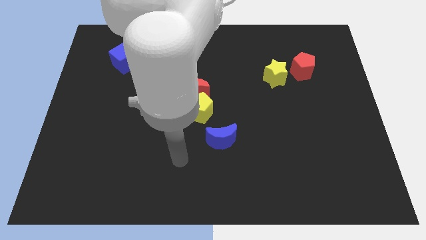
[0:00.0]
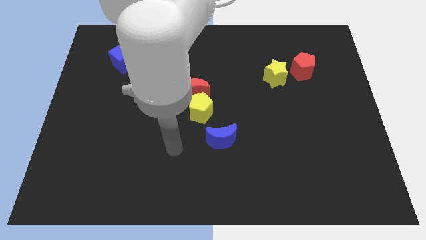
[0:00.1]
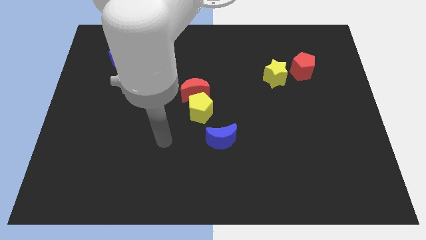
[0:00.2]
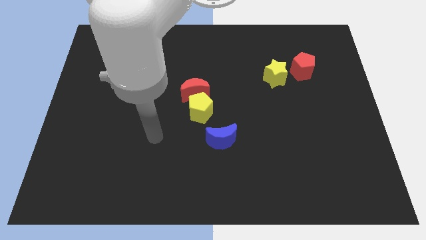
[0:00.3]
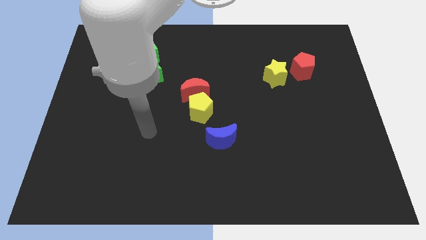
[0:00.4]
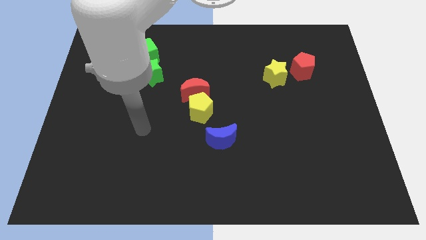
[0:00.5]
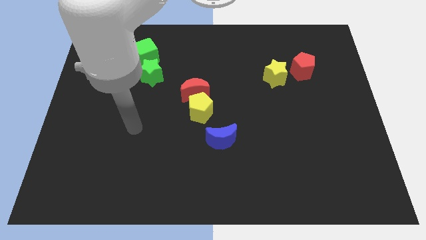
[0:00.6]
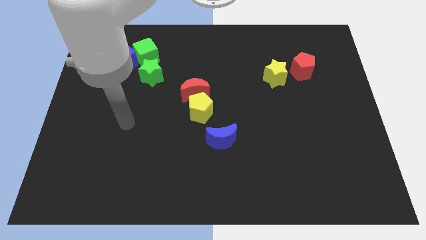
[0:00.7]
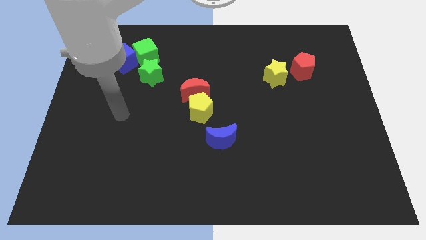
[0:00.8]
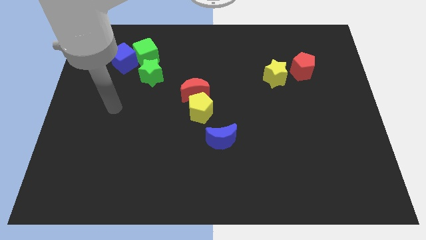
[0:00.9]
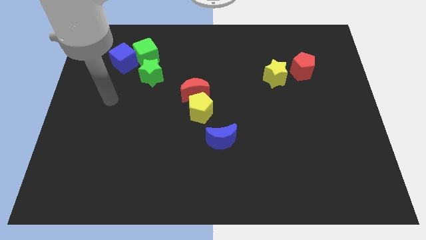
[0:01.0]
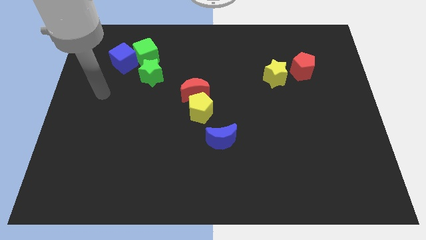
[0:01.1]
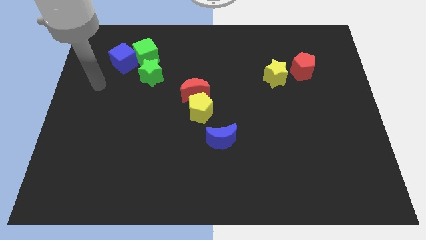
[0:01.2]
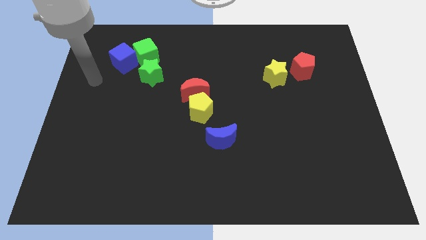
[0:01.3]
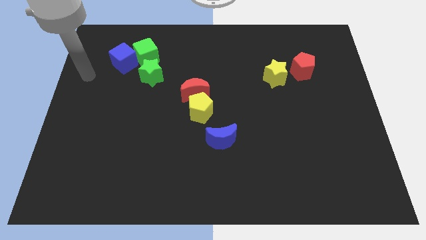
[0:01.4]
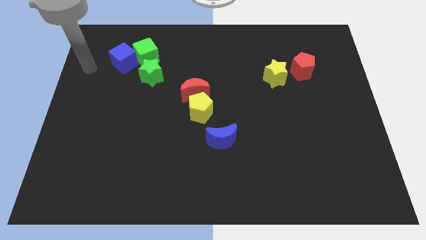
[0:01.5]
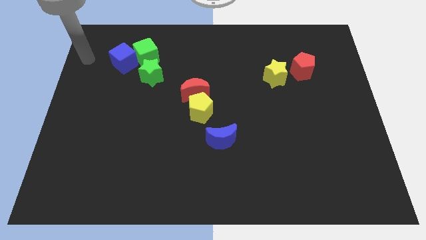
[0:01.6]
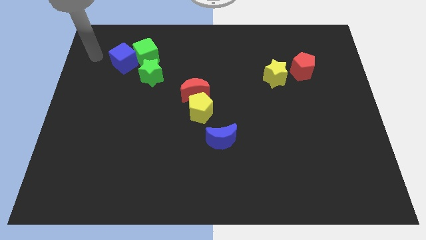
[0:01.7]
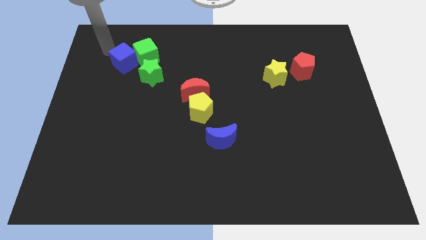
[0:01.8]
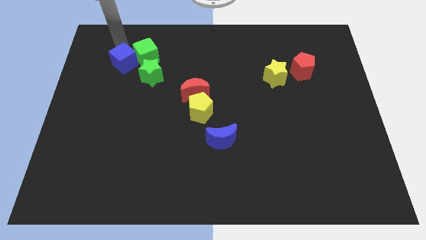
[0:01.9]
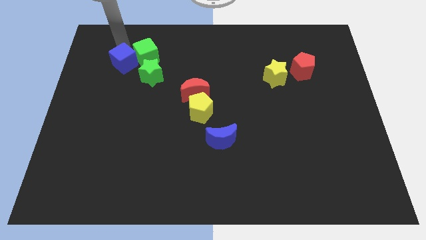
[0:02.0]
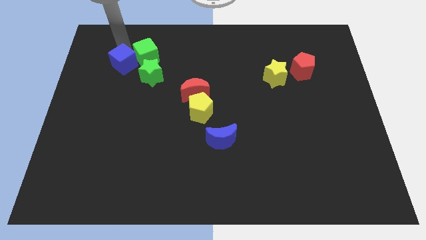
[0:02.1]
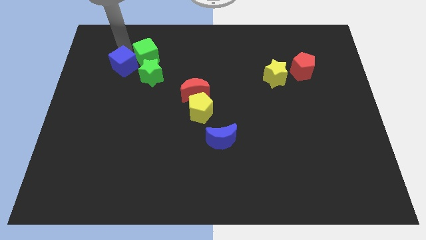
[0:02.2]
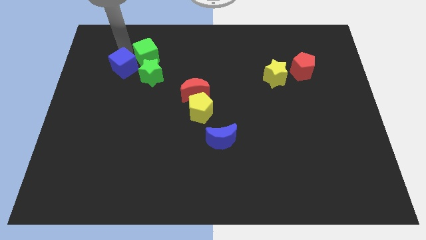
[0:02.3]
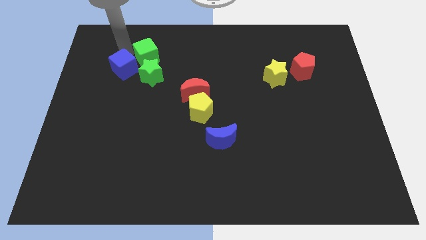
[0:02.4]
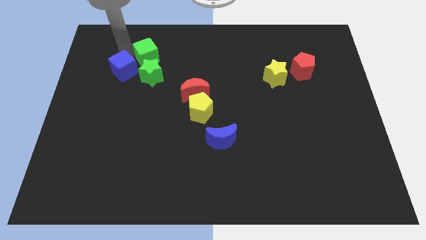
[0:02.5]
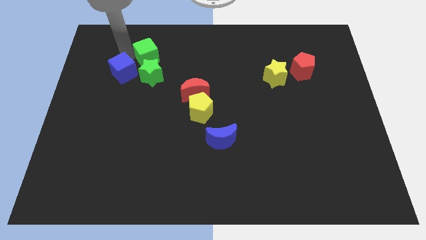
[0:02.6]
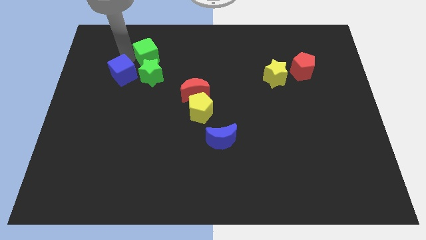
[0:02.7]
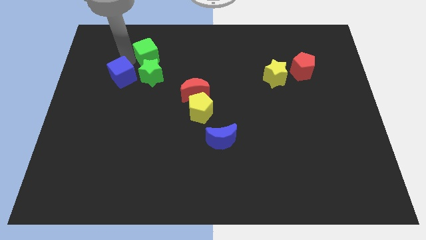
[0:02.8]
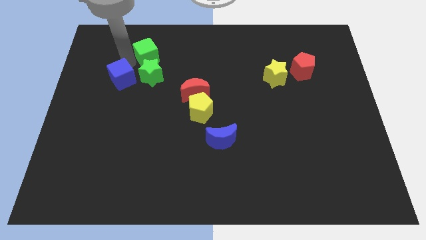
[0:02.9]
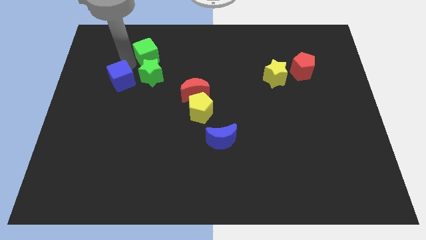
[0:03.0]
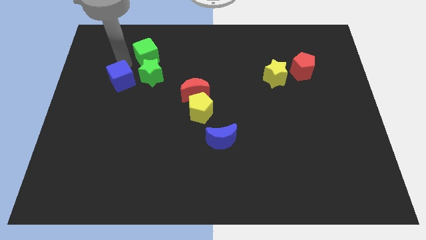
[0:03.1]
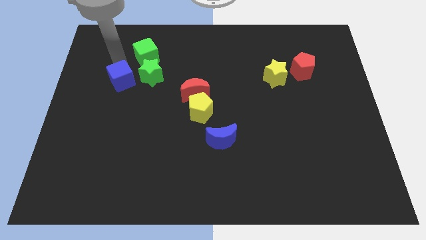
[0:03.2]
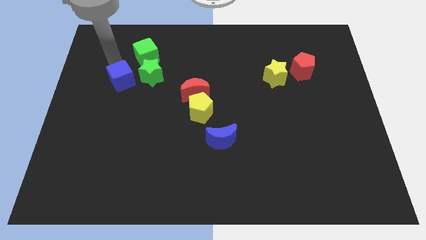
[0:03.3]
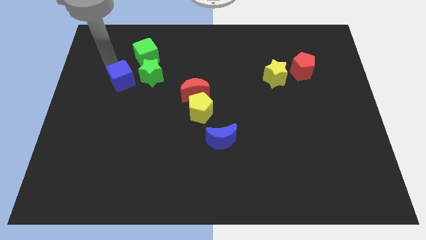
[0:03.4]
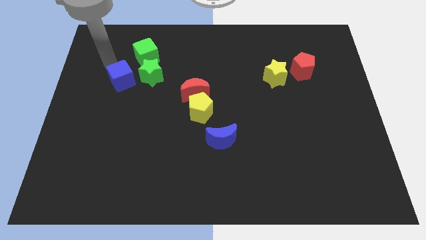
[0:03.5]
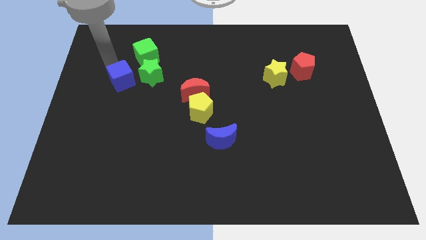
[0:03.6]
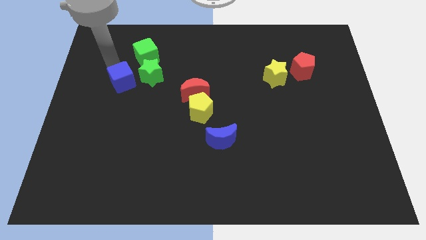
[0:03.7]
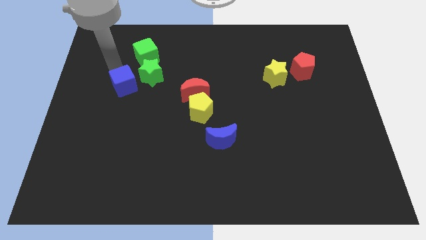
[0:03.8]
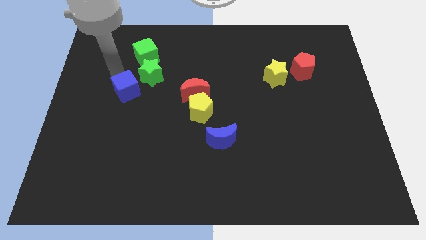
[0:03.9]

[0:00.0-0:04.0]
slightly move the blue cube down and to the right

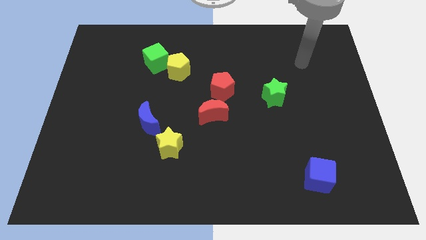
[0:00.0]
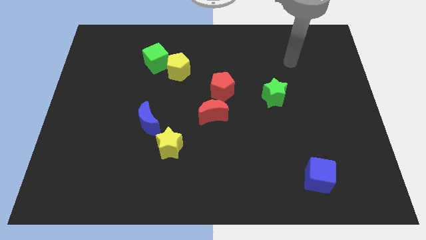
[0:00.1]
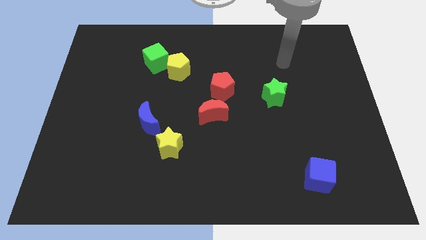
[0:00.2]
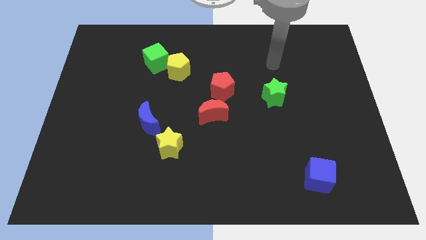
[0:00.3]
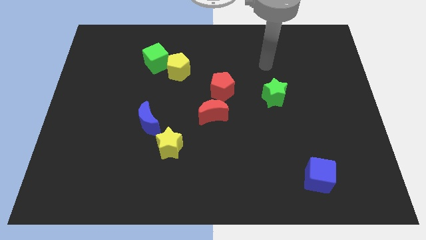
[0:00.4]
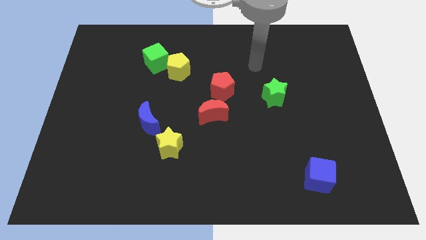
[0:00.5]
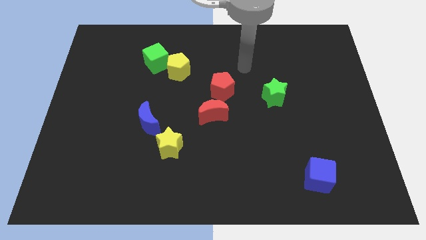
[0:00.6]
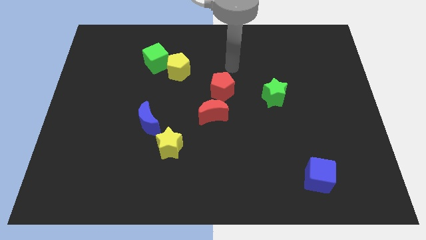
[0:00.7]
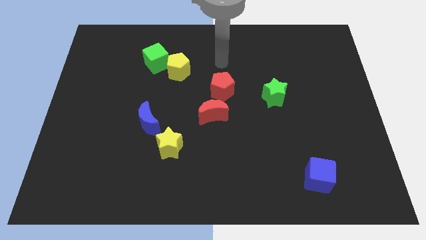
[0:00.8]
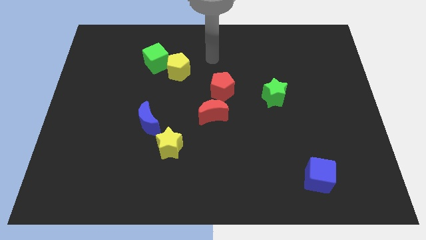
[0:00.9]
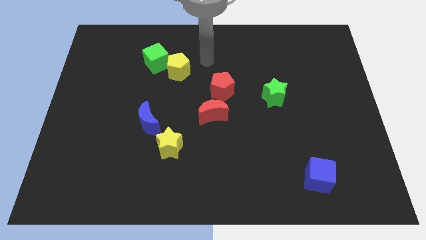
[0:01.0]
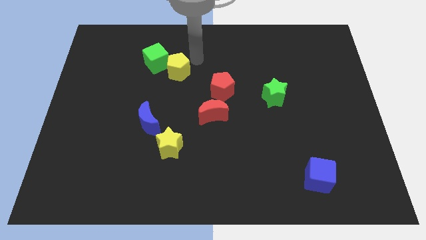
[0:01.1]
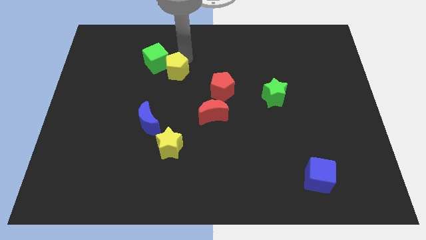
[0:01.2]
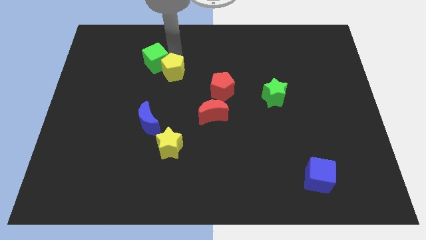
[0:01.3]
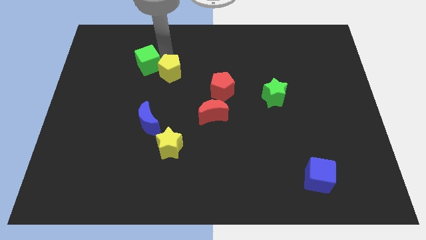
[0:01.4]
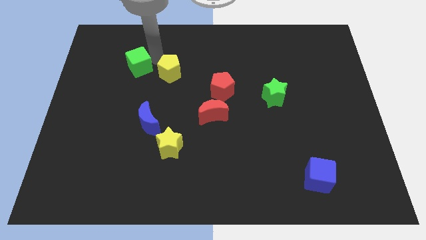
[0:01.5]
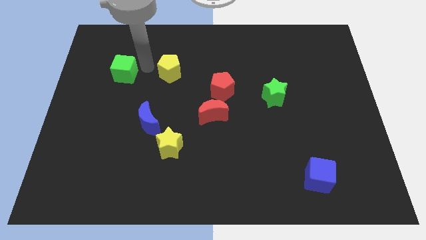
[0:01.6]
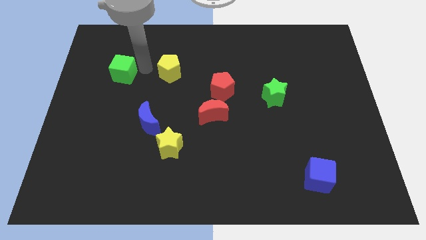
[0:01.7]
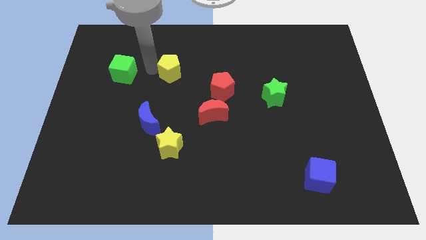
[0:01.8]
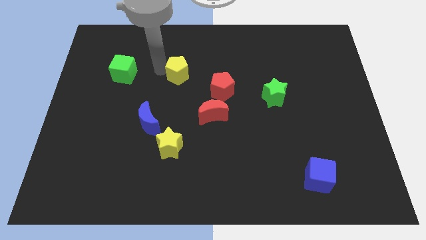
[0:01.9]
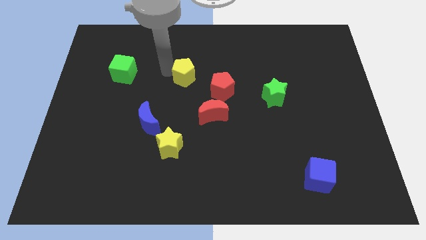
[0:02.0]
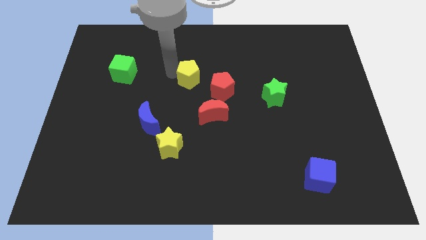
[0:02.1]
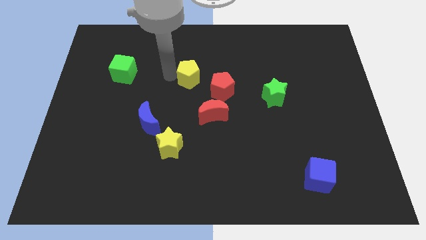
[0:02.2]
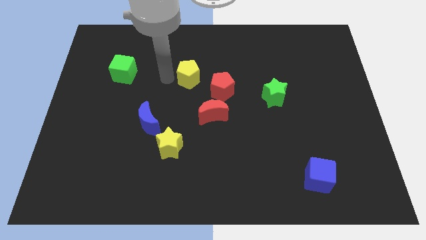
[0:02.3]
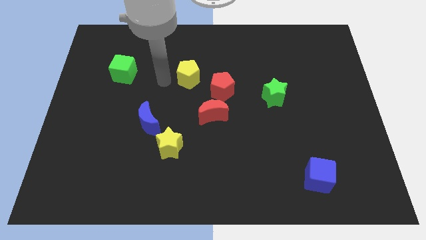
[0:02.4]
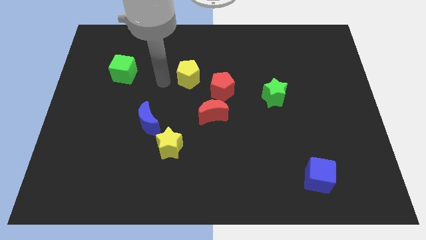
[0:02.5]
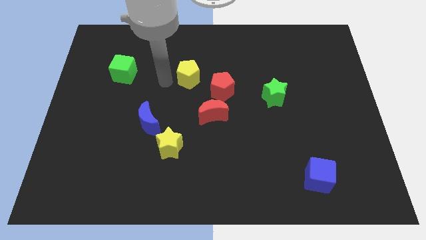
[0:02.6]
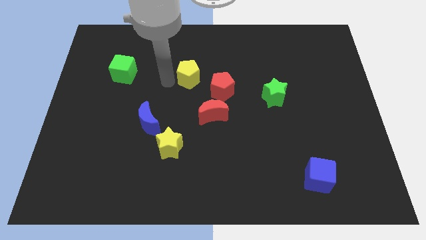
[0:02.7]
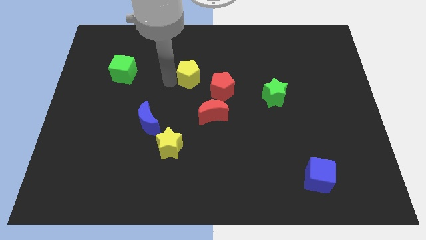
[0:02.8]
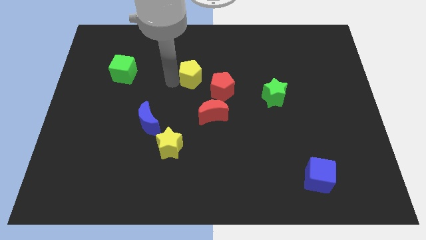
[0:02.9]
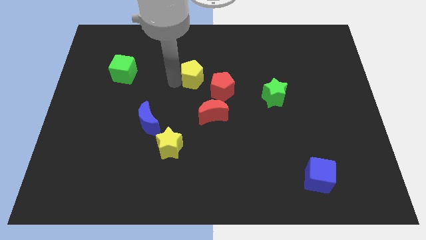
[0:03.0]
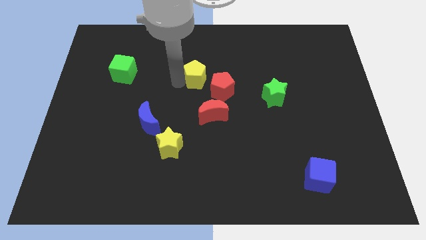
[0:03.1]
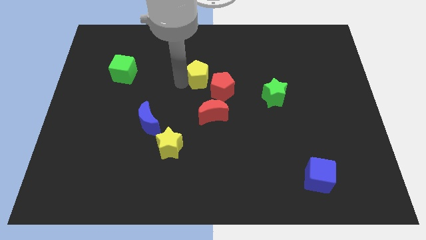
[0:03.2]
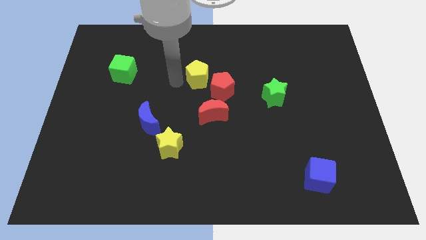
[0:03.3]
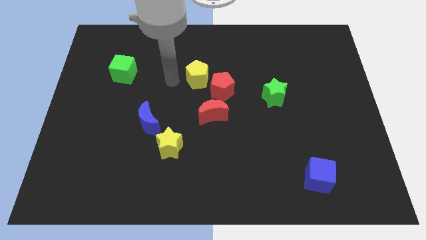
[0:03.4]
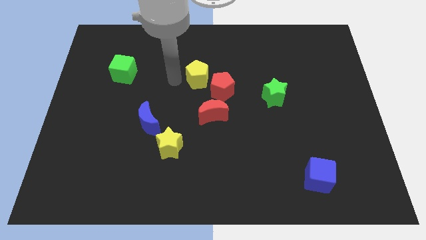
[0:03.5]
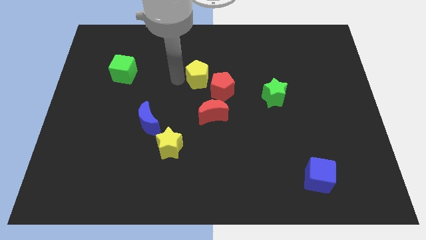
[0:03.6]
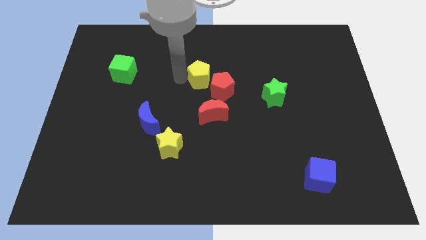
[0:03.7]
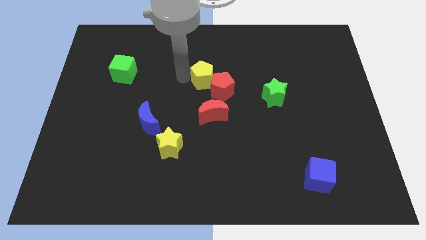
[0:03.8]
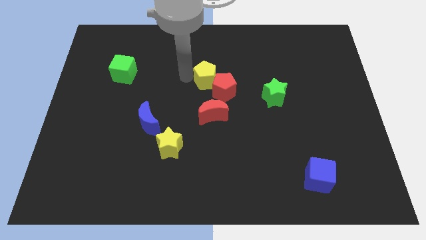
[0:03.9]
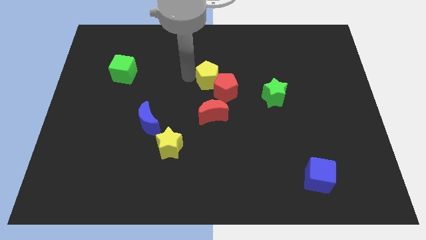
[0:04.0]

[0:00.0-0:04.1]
slightly move the yellow pentagon right
